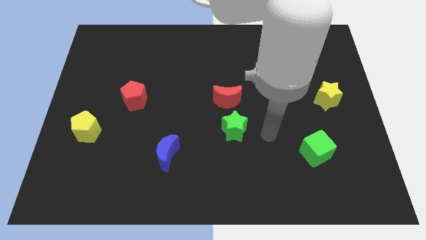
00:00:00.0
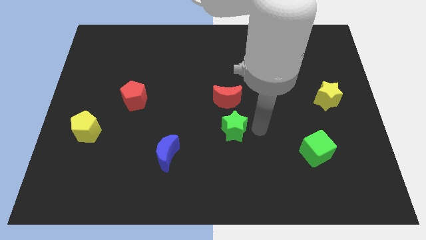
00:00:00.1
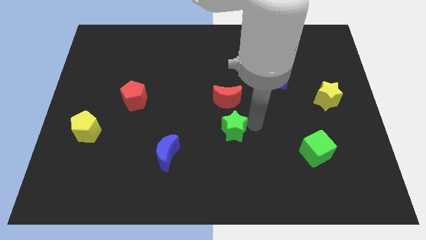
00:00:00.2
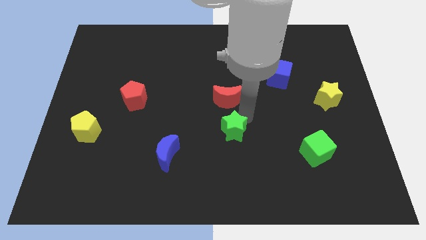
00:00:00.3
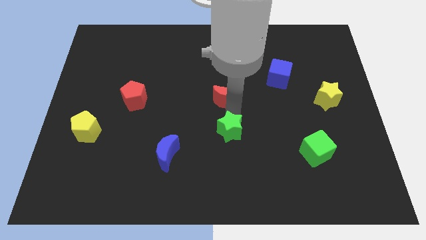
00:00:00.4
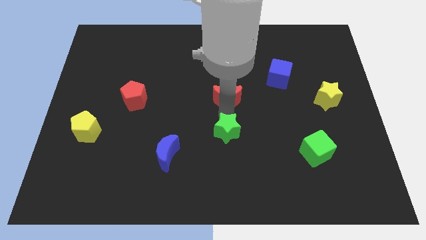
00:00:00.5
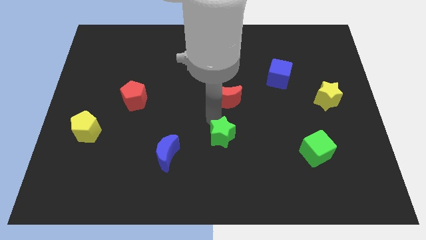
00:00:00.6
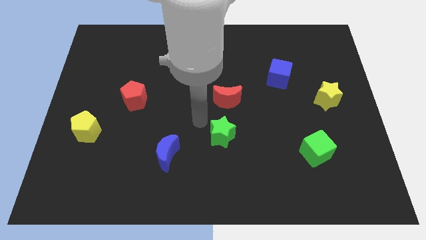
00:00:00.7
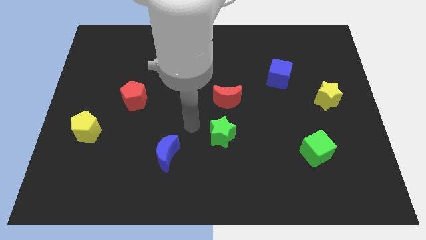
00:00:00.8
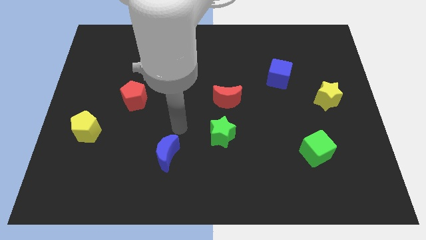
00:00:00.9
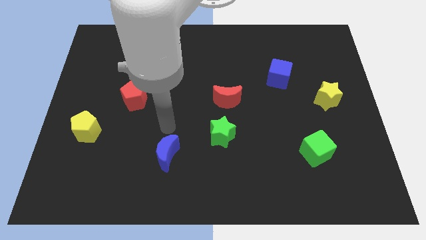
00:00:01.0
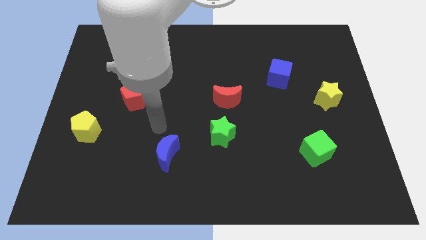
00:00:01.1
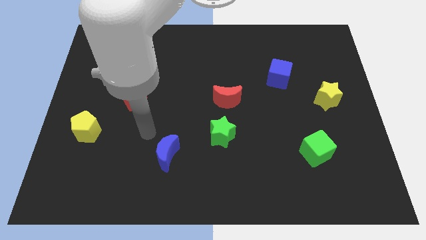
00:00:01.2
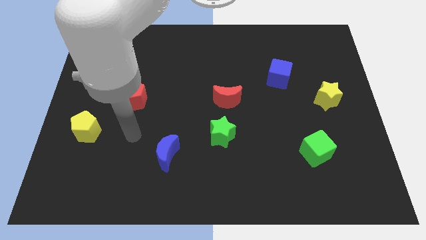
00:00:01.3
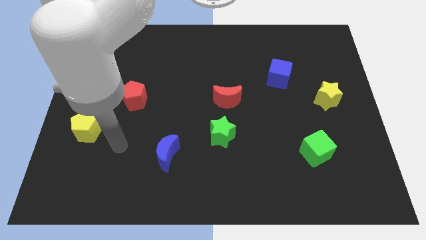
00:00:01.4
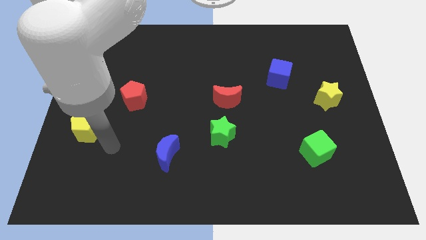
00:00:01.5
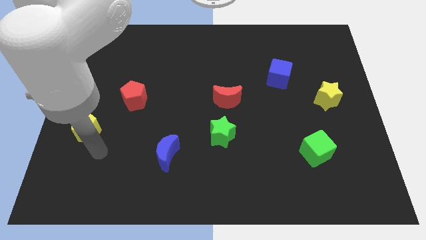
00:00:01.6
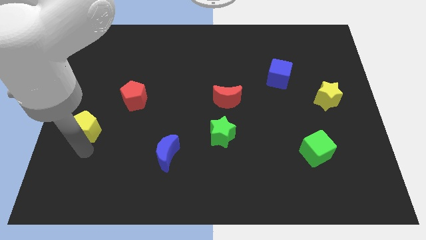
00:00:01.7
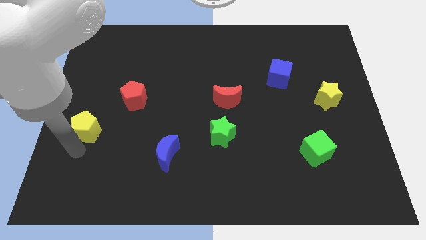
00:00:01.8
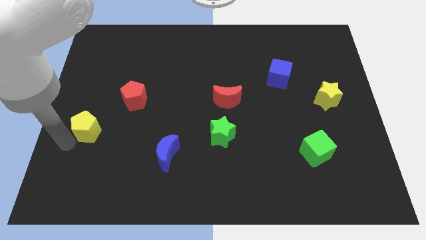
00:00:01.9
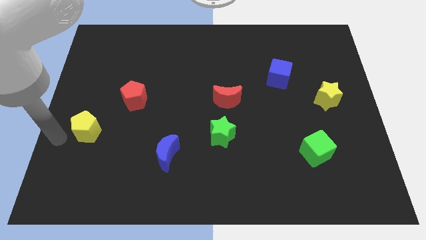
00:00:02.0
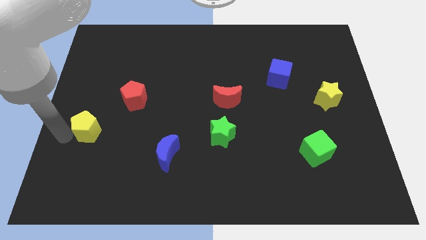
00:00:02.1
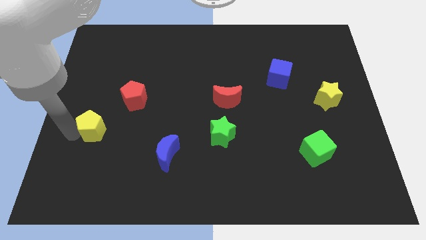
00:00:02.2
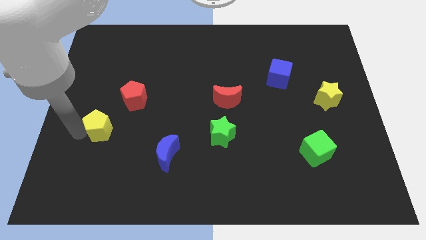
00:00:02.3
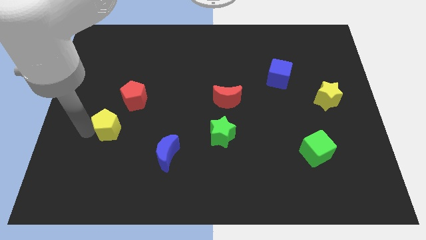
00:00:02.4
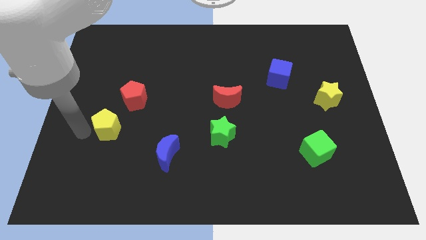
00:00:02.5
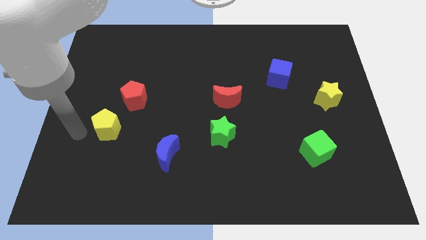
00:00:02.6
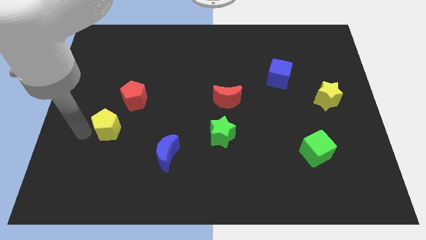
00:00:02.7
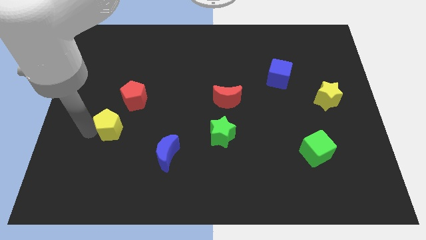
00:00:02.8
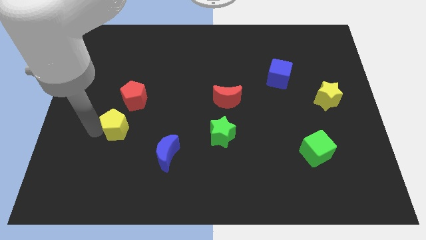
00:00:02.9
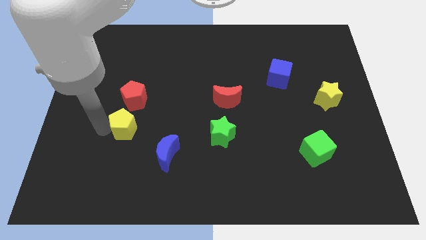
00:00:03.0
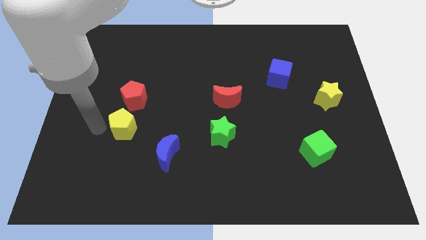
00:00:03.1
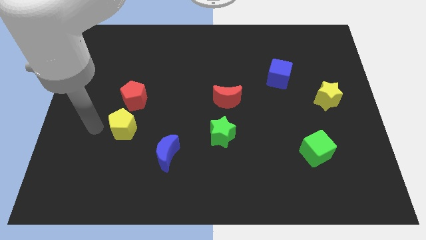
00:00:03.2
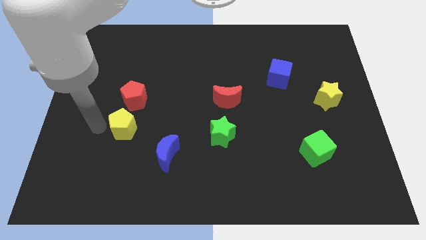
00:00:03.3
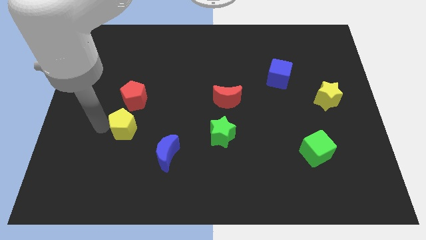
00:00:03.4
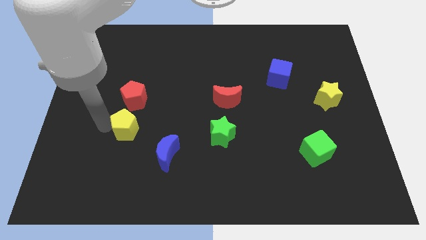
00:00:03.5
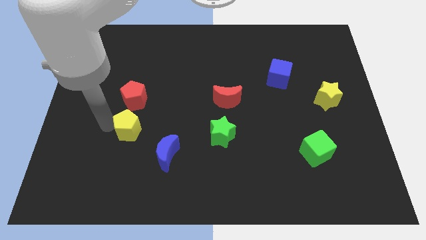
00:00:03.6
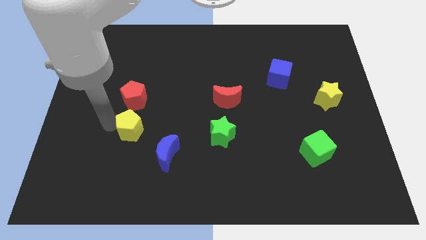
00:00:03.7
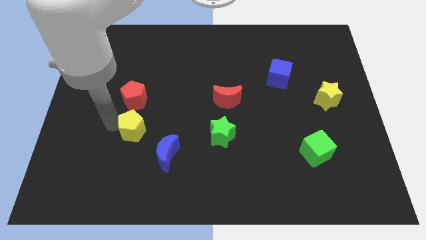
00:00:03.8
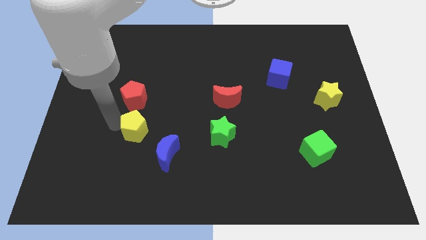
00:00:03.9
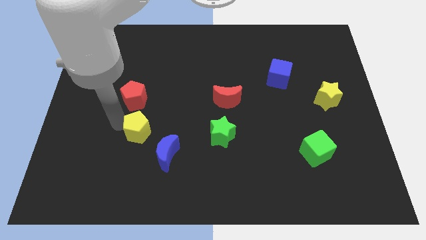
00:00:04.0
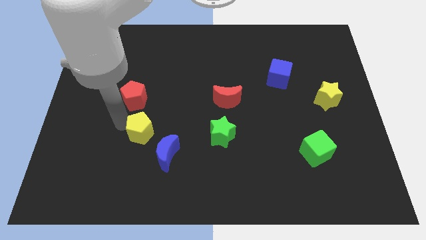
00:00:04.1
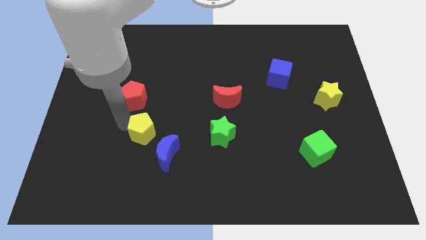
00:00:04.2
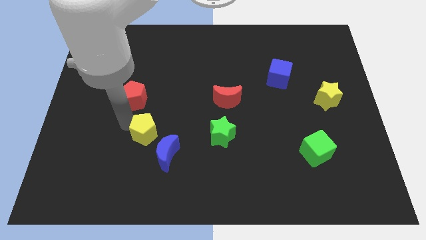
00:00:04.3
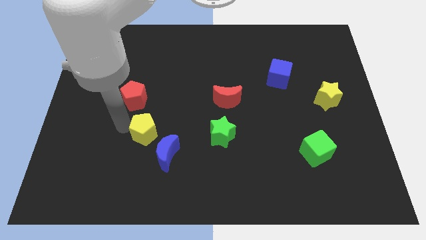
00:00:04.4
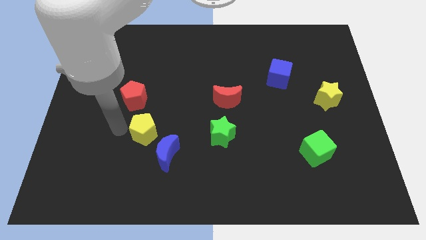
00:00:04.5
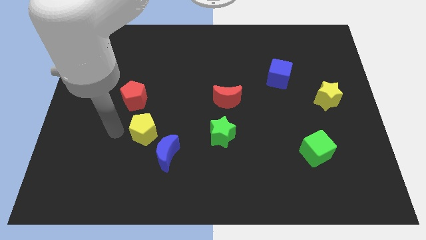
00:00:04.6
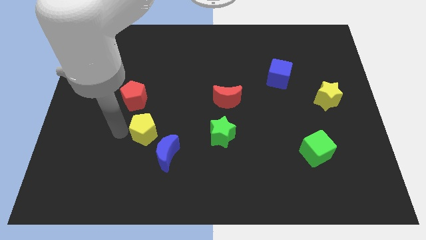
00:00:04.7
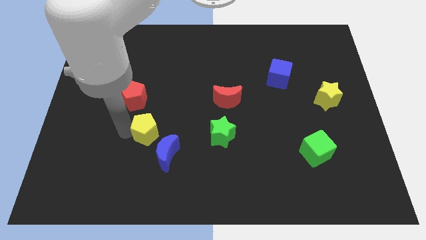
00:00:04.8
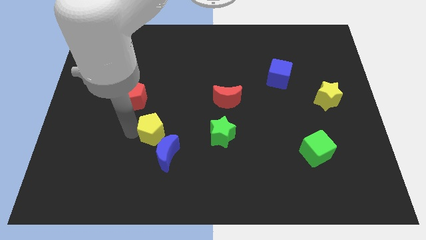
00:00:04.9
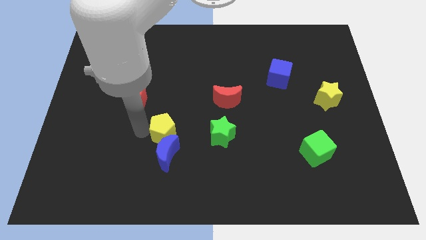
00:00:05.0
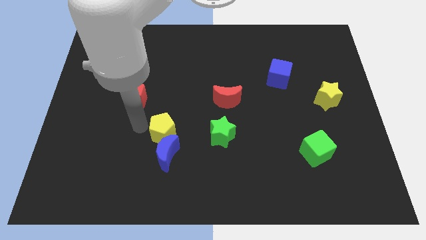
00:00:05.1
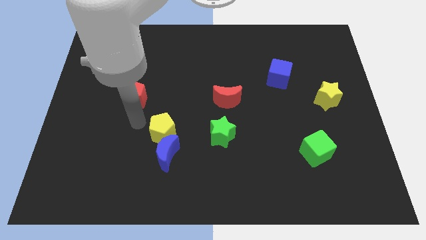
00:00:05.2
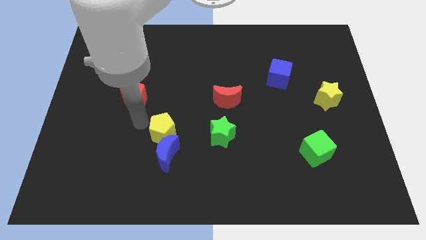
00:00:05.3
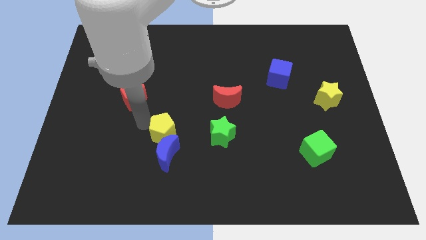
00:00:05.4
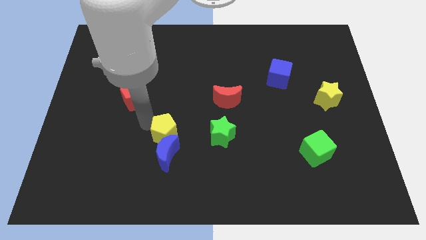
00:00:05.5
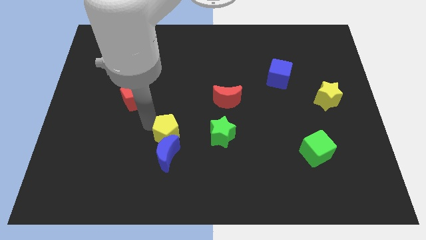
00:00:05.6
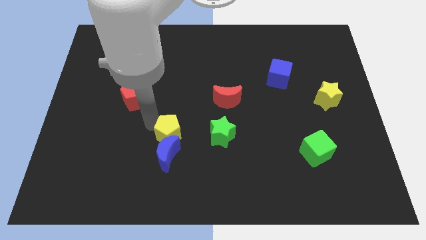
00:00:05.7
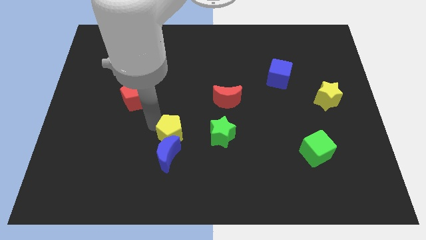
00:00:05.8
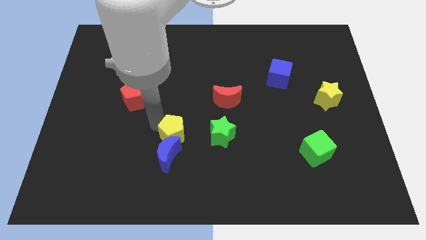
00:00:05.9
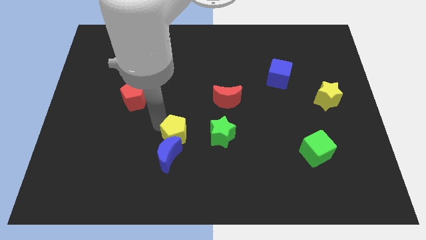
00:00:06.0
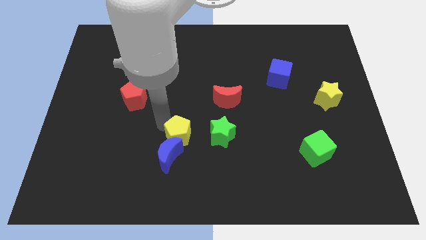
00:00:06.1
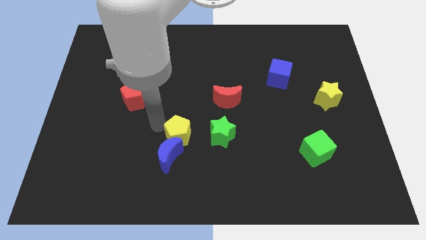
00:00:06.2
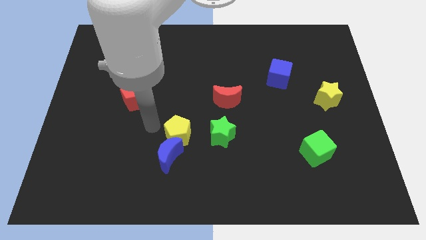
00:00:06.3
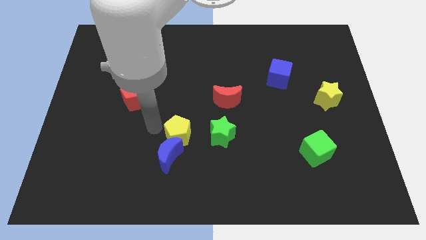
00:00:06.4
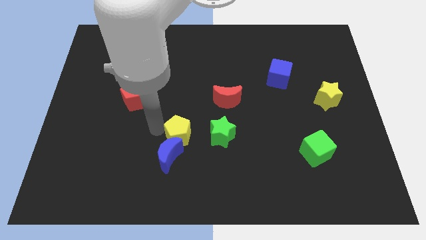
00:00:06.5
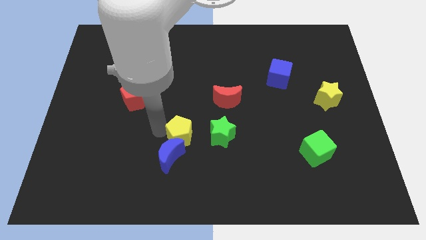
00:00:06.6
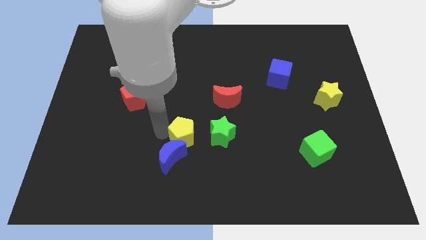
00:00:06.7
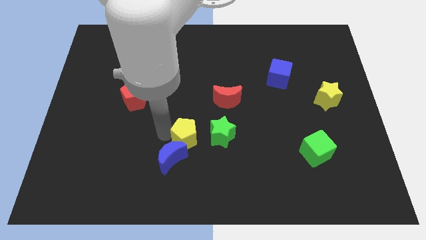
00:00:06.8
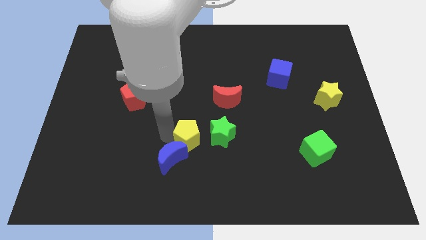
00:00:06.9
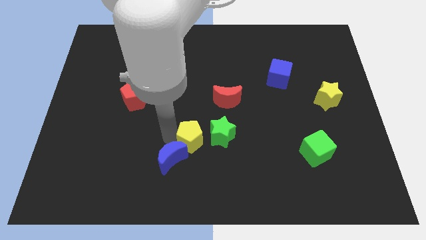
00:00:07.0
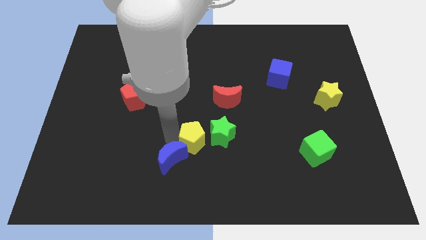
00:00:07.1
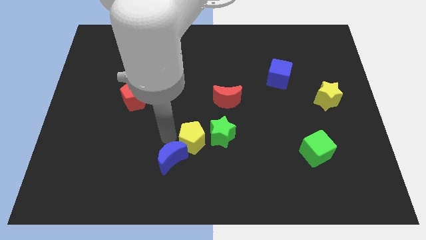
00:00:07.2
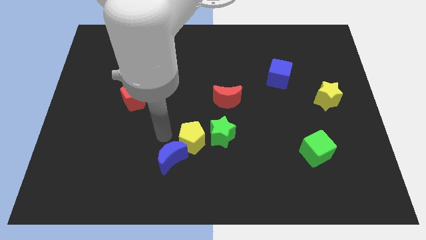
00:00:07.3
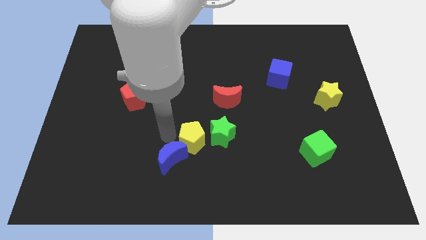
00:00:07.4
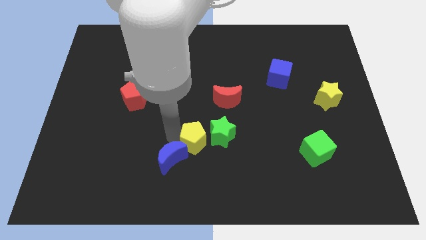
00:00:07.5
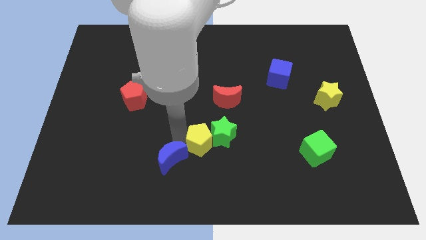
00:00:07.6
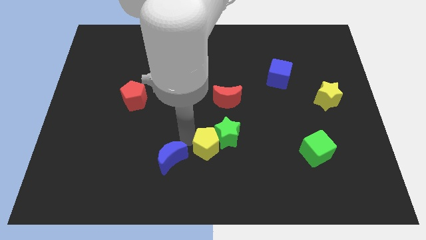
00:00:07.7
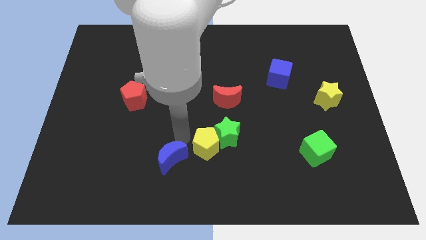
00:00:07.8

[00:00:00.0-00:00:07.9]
move the yellow pentagon to the bottom side of the red moon
